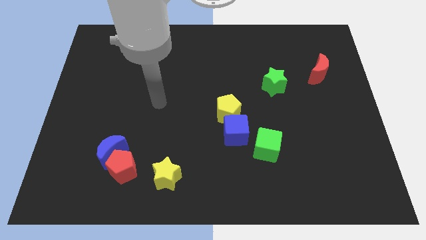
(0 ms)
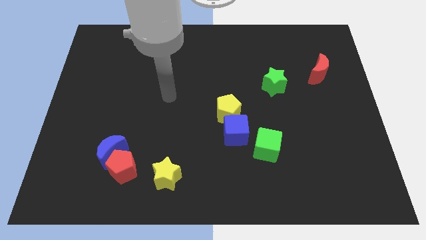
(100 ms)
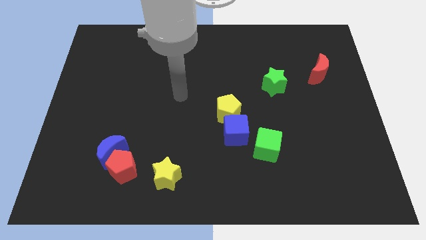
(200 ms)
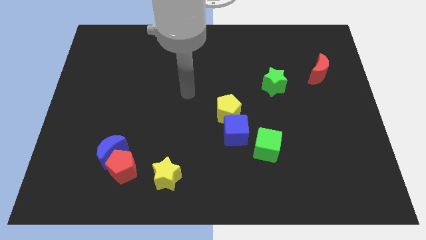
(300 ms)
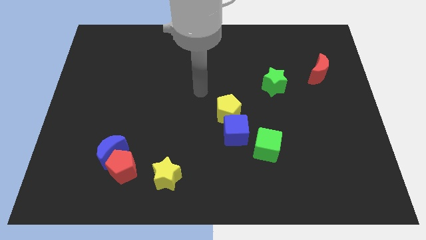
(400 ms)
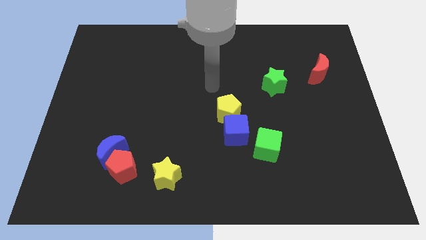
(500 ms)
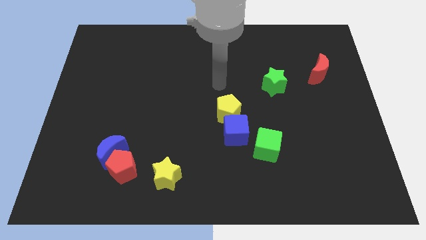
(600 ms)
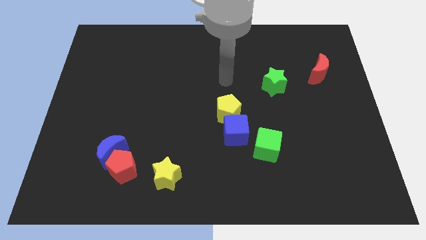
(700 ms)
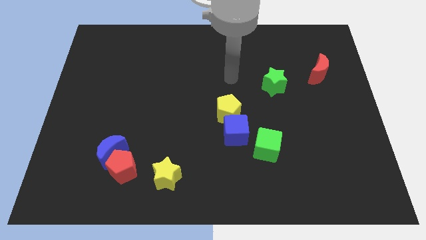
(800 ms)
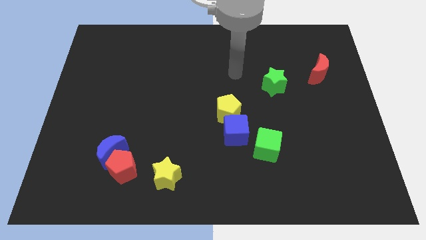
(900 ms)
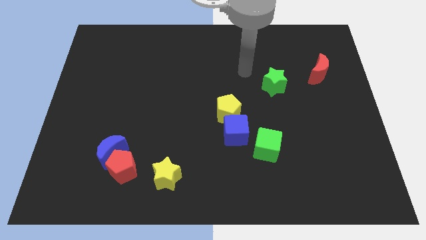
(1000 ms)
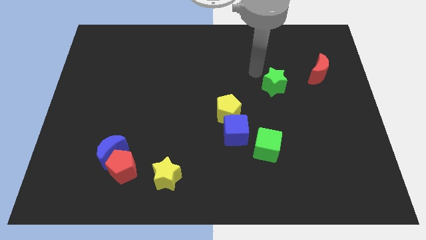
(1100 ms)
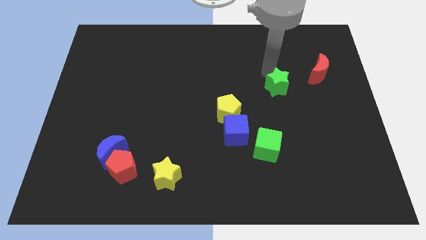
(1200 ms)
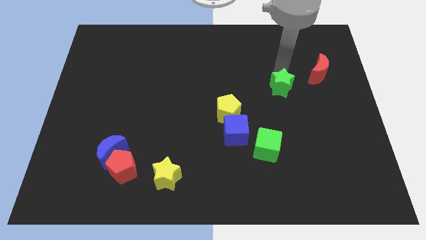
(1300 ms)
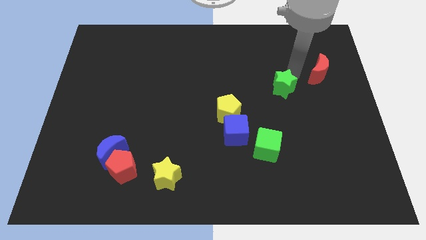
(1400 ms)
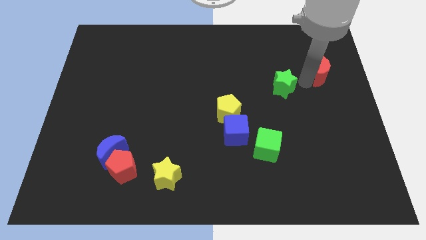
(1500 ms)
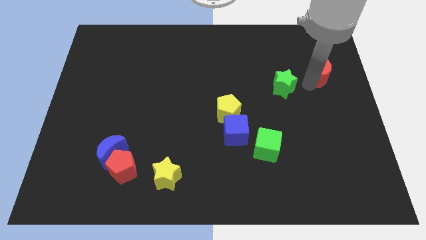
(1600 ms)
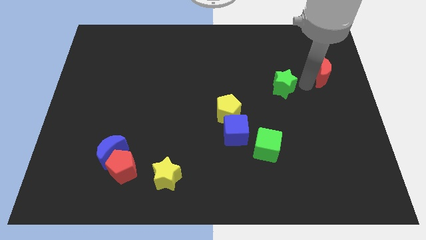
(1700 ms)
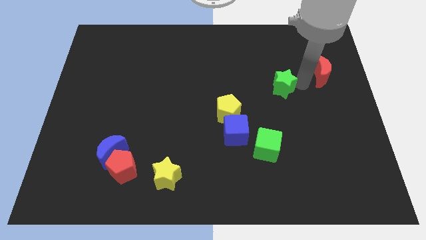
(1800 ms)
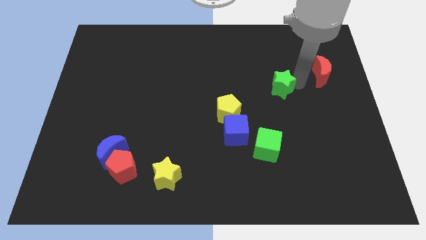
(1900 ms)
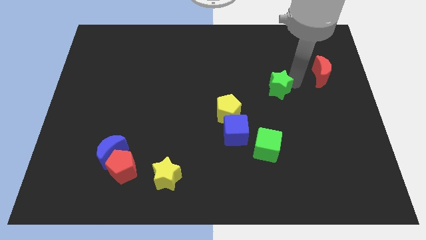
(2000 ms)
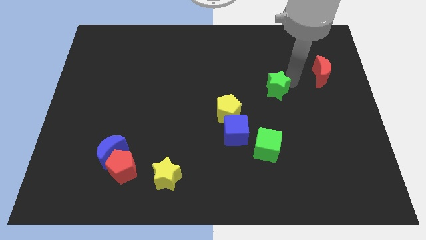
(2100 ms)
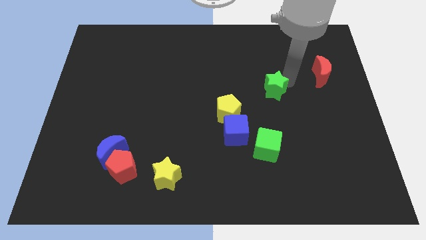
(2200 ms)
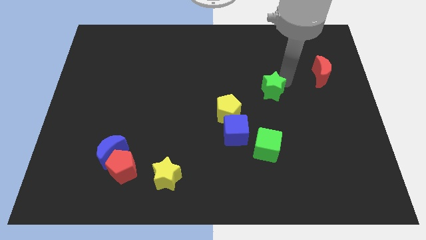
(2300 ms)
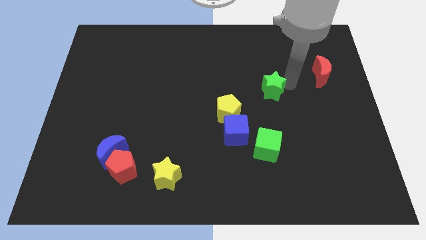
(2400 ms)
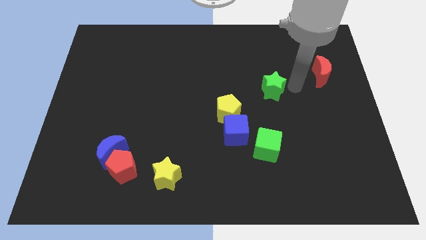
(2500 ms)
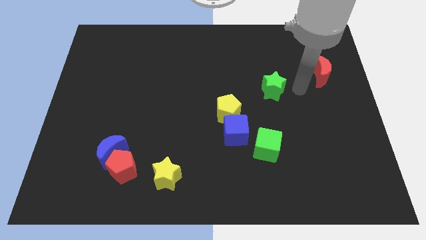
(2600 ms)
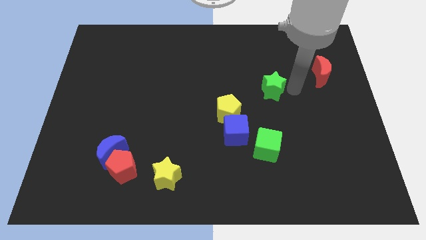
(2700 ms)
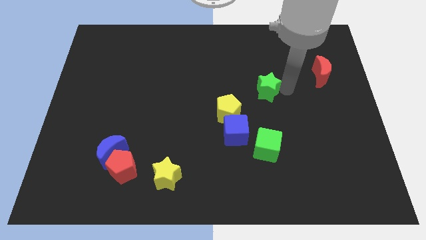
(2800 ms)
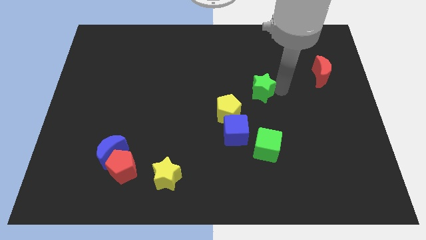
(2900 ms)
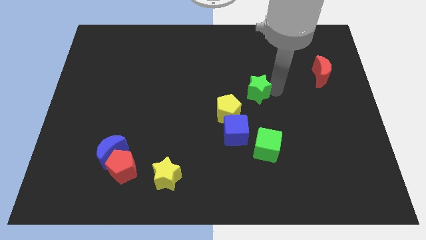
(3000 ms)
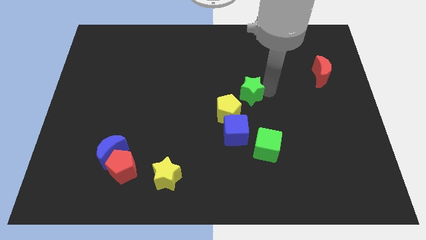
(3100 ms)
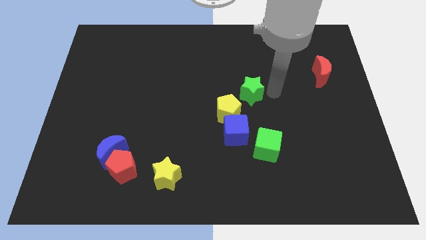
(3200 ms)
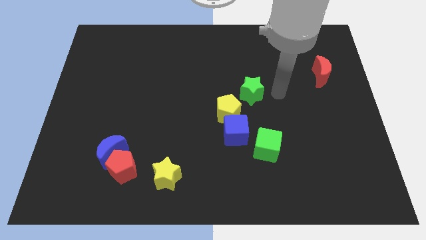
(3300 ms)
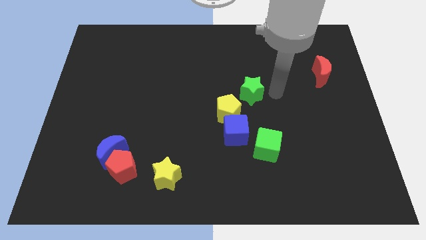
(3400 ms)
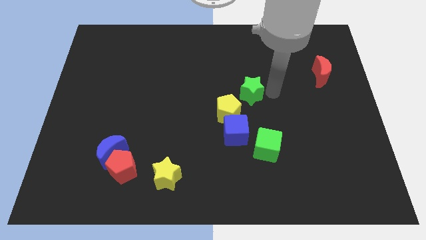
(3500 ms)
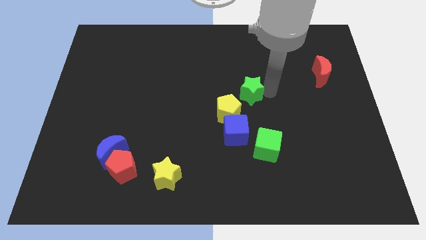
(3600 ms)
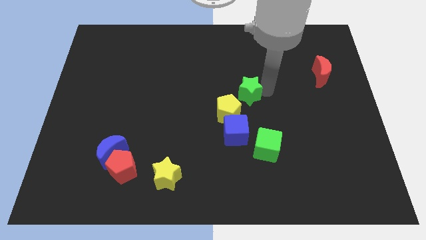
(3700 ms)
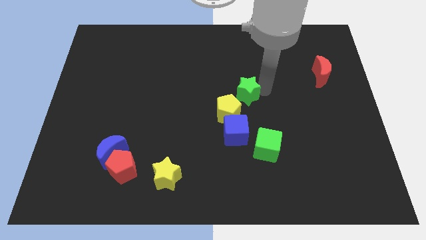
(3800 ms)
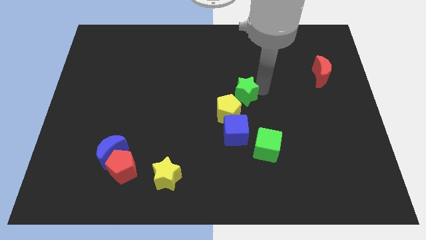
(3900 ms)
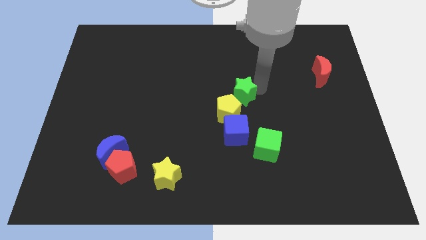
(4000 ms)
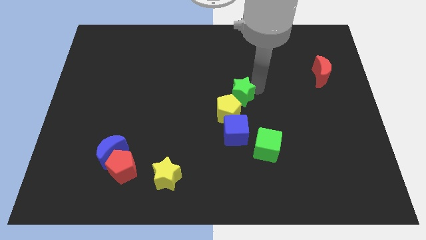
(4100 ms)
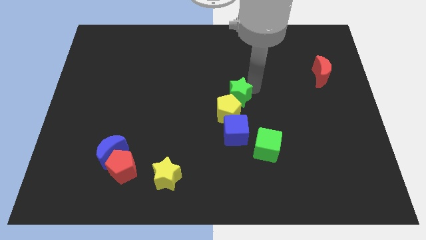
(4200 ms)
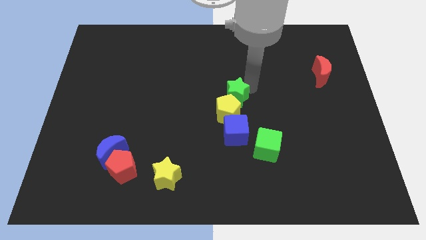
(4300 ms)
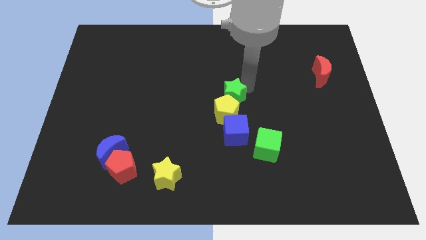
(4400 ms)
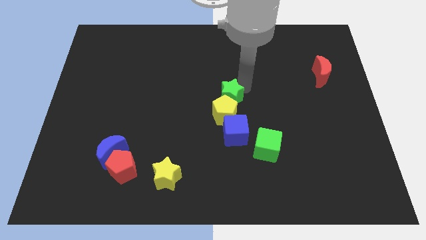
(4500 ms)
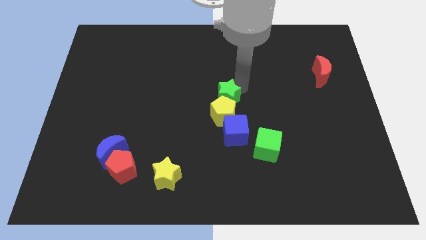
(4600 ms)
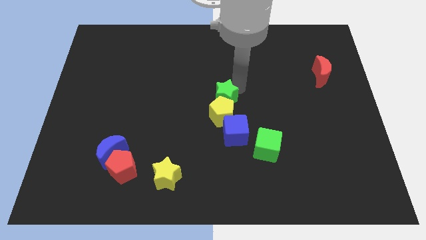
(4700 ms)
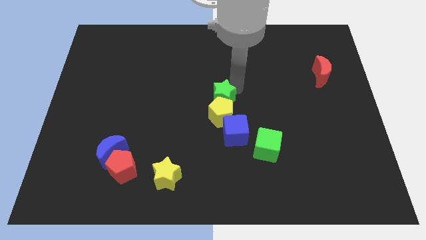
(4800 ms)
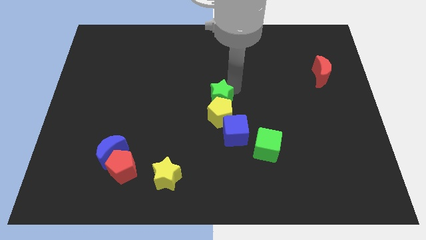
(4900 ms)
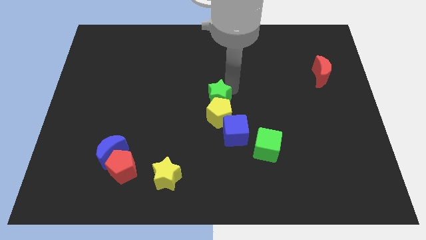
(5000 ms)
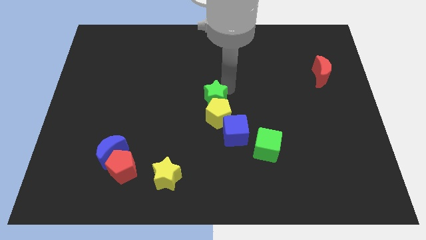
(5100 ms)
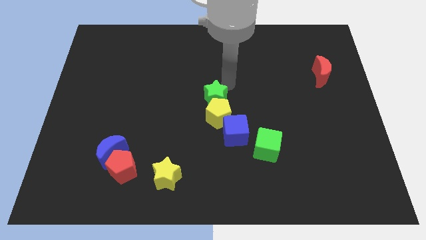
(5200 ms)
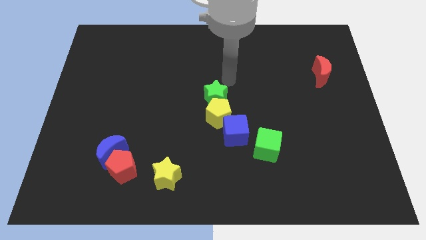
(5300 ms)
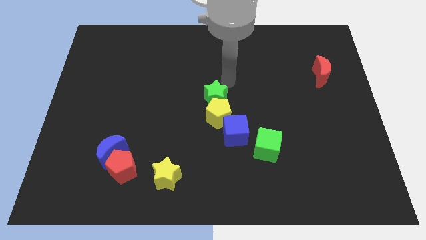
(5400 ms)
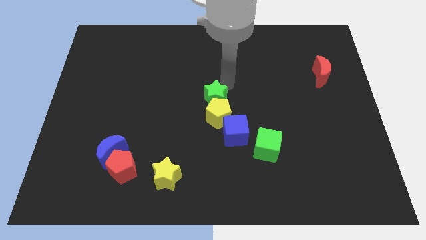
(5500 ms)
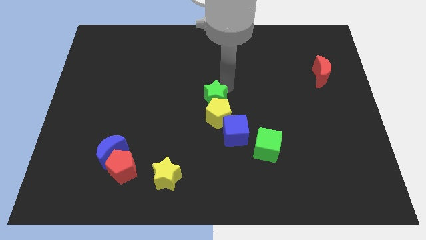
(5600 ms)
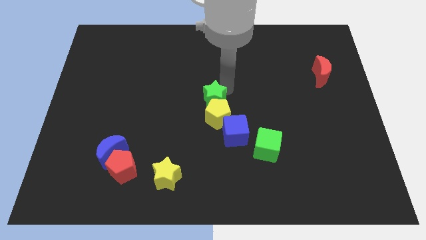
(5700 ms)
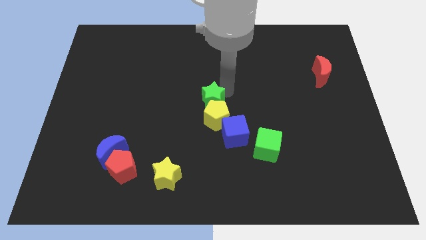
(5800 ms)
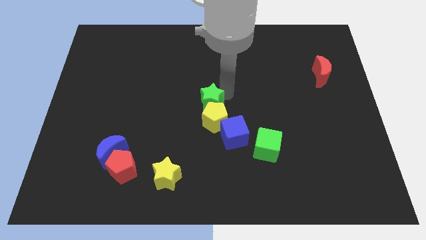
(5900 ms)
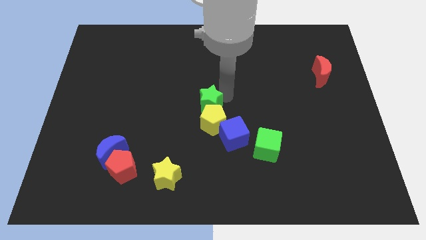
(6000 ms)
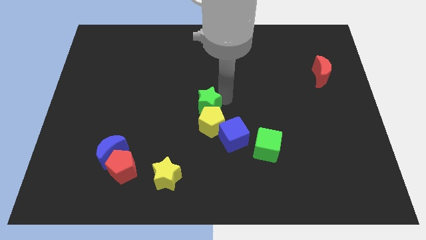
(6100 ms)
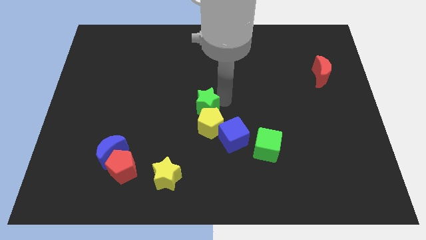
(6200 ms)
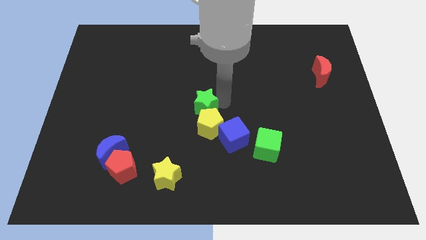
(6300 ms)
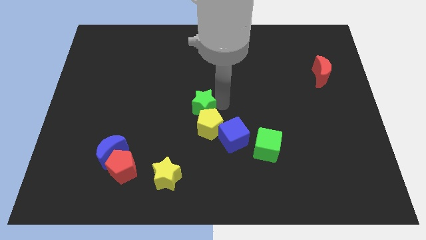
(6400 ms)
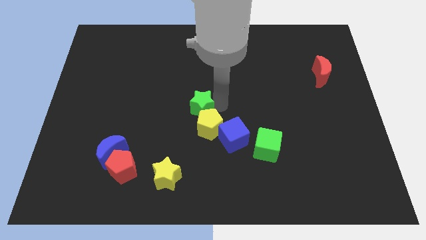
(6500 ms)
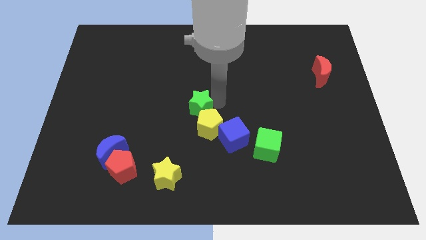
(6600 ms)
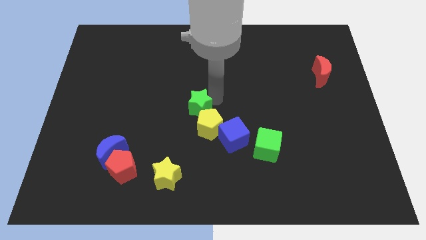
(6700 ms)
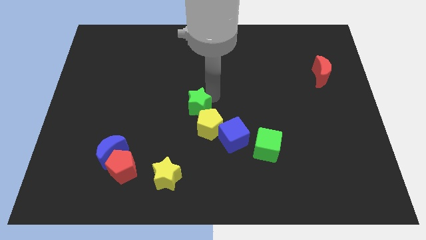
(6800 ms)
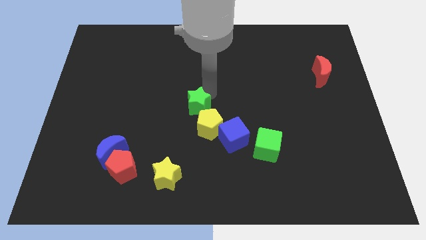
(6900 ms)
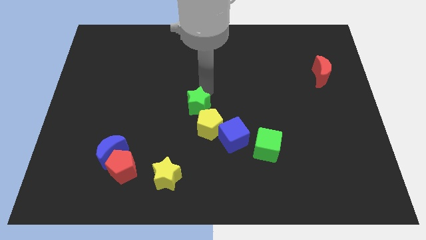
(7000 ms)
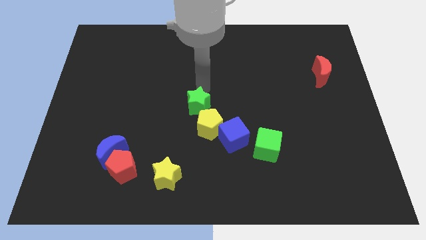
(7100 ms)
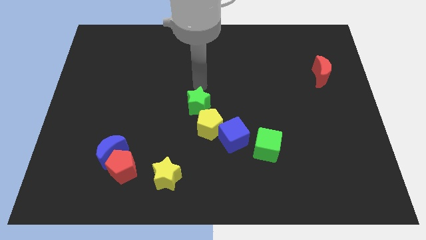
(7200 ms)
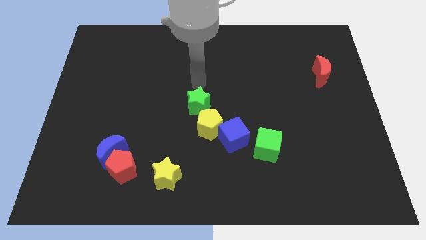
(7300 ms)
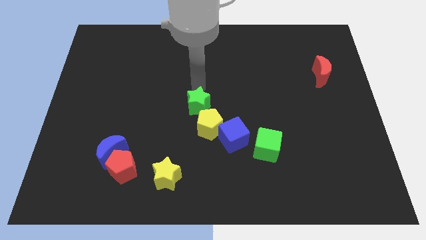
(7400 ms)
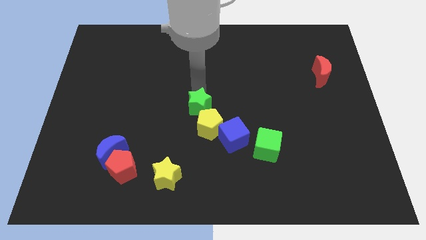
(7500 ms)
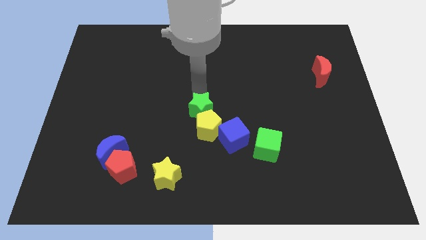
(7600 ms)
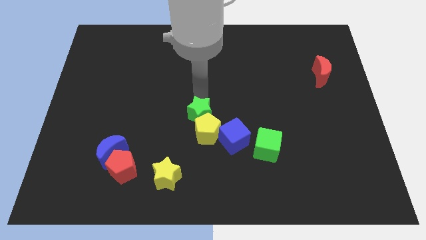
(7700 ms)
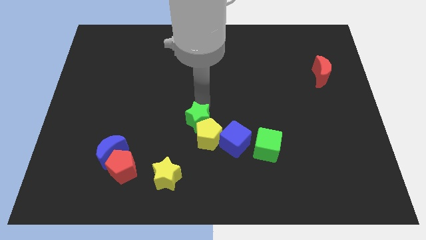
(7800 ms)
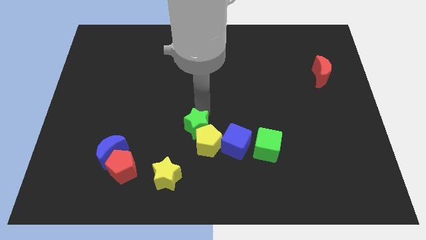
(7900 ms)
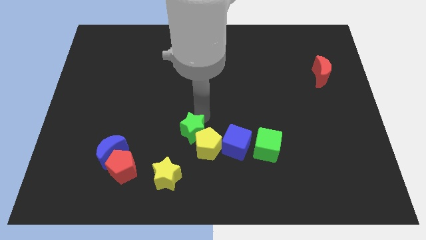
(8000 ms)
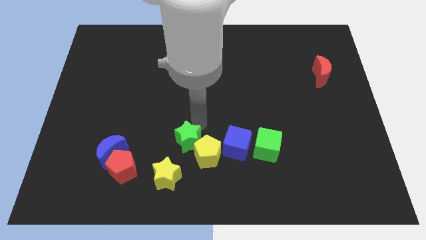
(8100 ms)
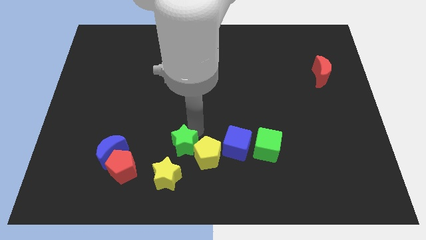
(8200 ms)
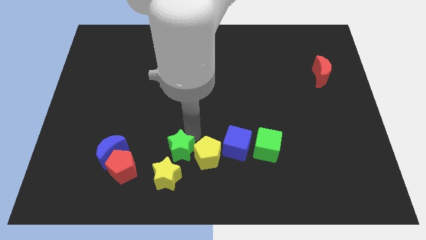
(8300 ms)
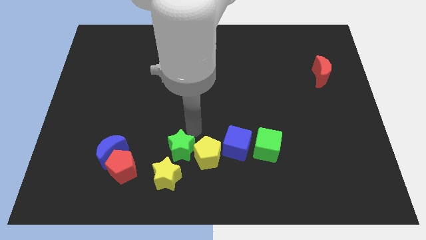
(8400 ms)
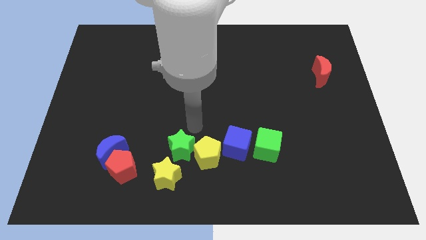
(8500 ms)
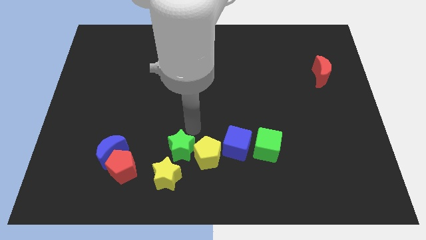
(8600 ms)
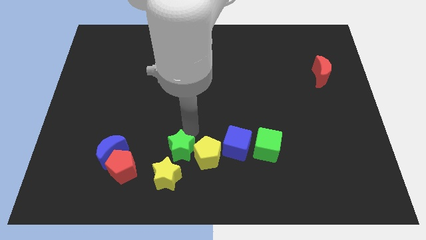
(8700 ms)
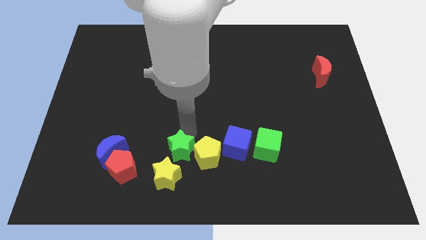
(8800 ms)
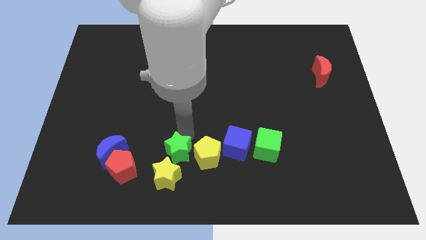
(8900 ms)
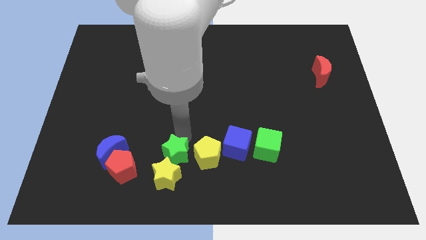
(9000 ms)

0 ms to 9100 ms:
move the green star to the yellow star
